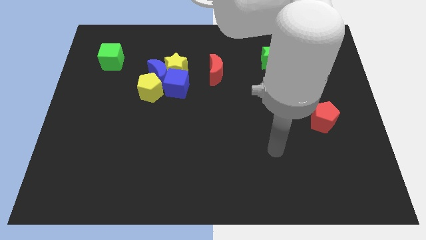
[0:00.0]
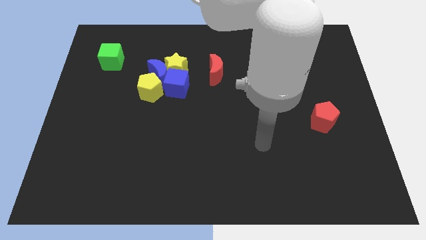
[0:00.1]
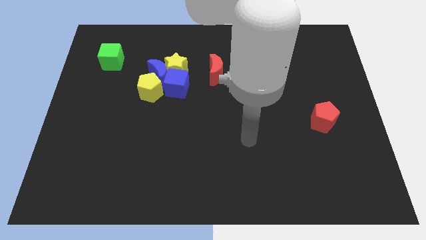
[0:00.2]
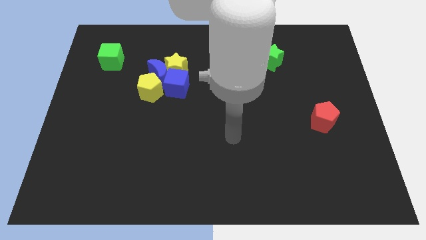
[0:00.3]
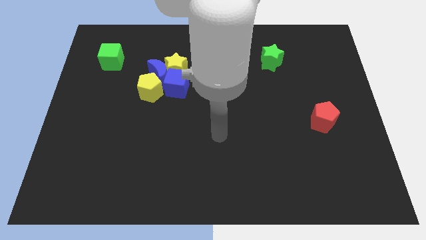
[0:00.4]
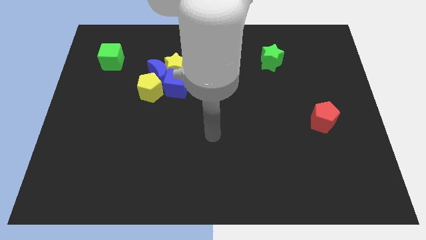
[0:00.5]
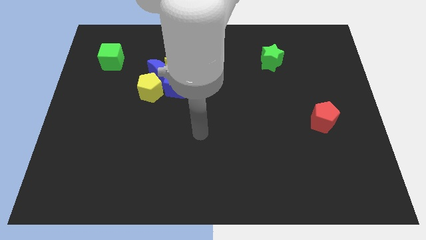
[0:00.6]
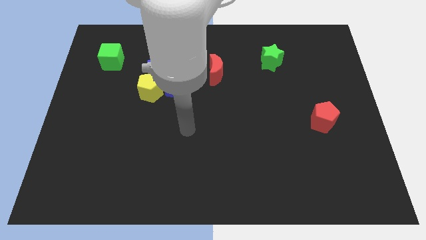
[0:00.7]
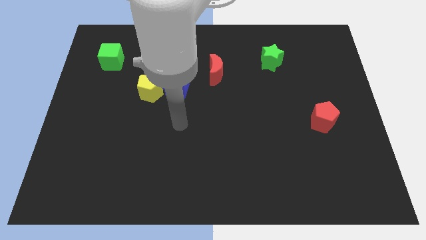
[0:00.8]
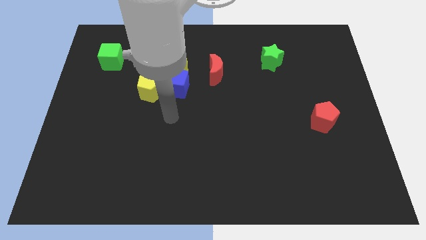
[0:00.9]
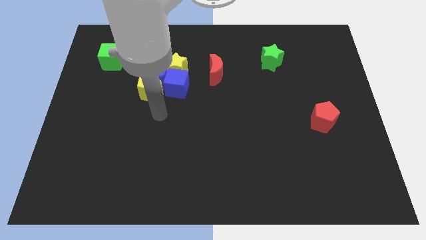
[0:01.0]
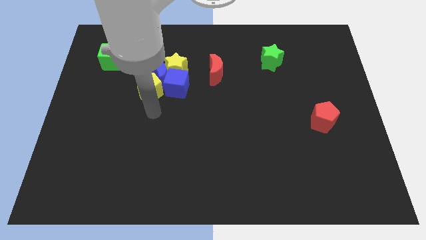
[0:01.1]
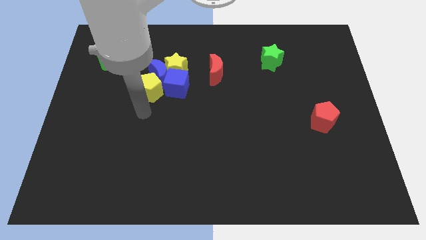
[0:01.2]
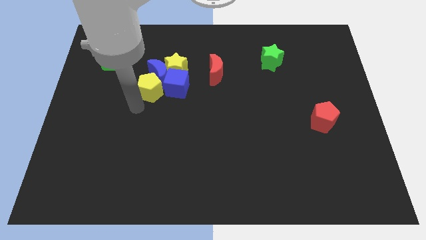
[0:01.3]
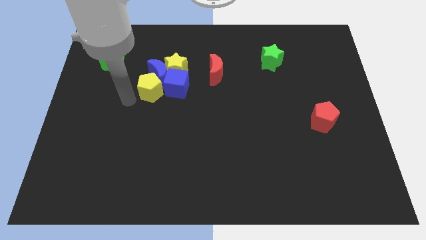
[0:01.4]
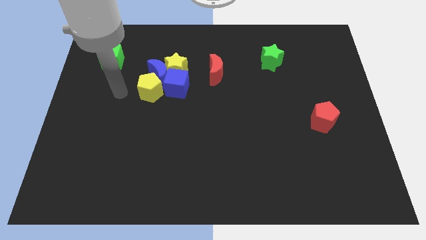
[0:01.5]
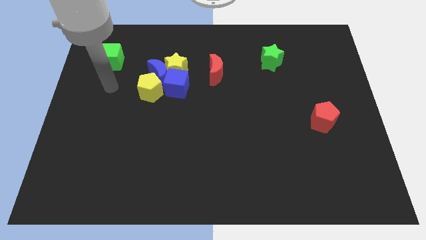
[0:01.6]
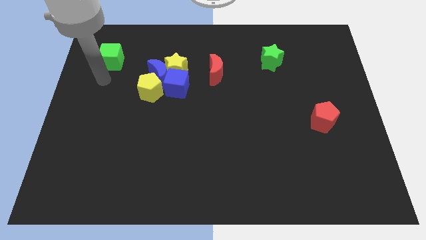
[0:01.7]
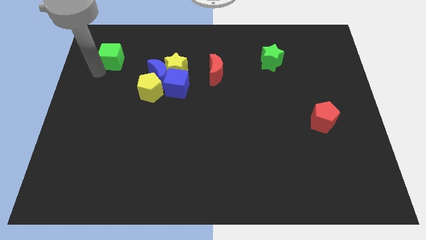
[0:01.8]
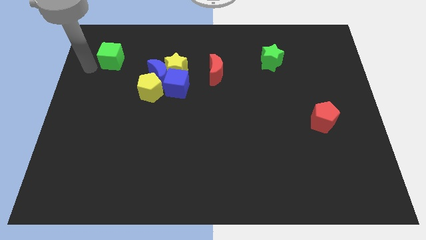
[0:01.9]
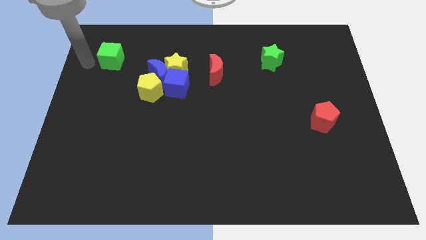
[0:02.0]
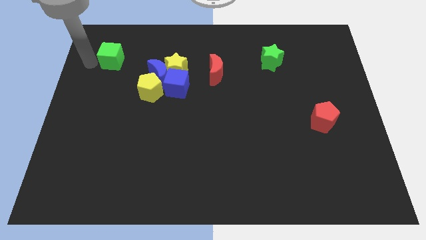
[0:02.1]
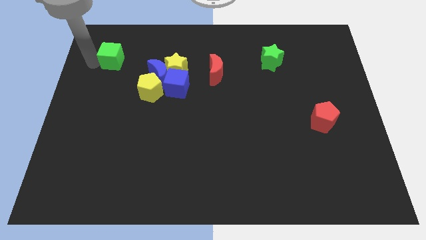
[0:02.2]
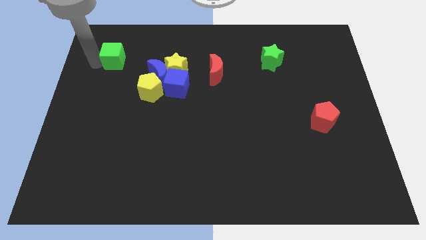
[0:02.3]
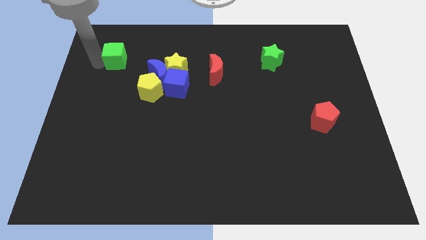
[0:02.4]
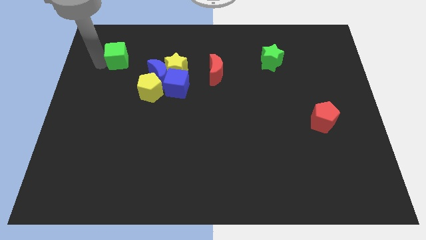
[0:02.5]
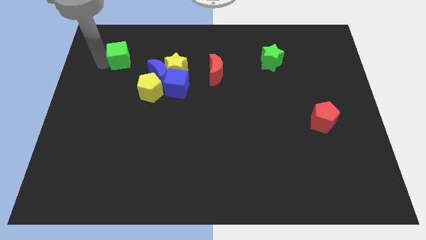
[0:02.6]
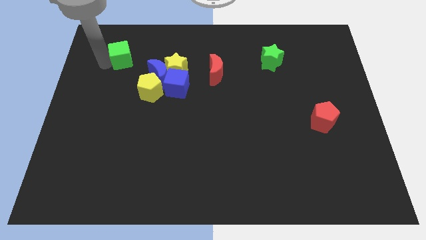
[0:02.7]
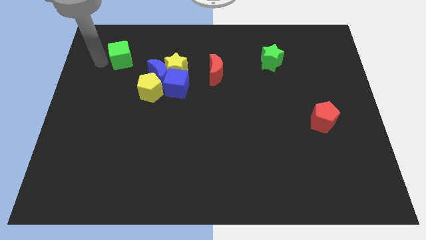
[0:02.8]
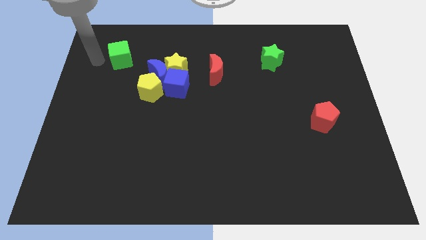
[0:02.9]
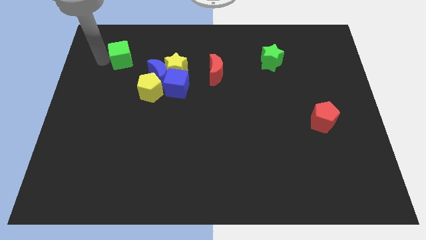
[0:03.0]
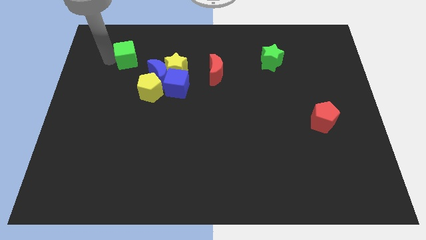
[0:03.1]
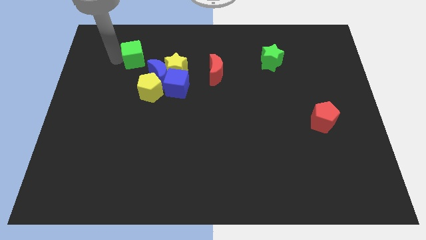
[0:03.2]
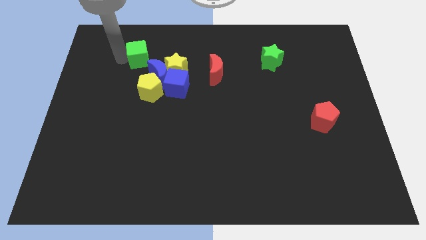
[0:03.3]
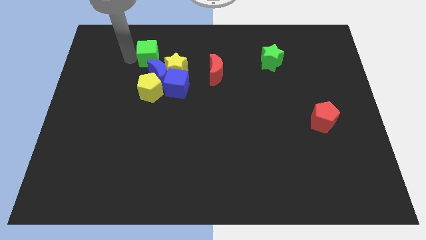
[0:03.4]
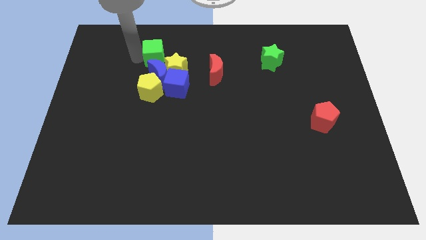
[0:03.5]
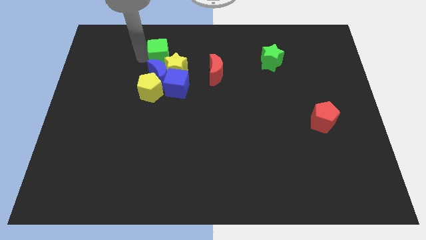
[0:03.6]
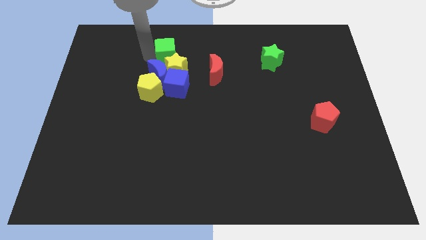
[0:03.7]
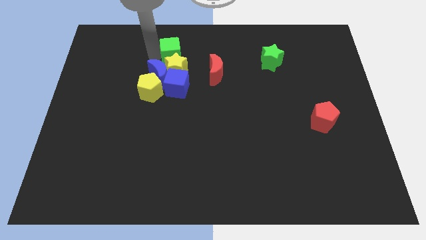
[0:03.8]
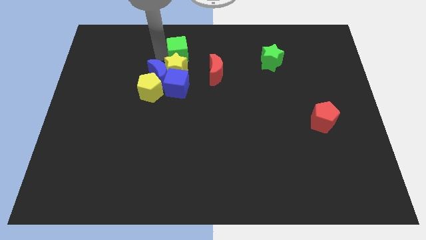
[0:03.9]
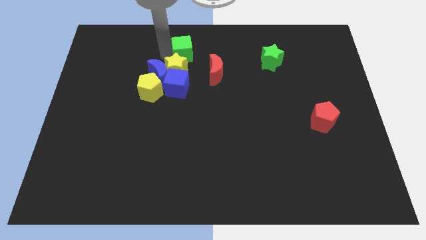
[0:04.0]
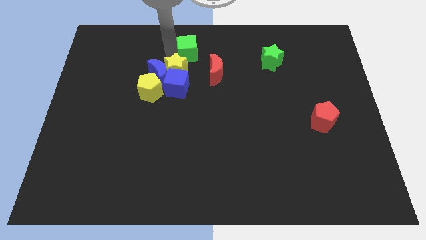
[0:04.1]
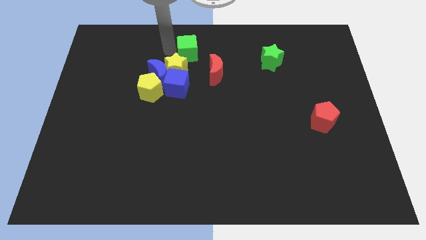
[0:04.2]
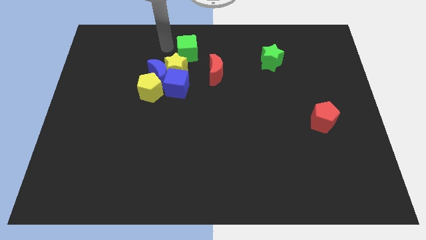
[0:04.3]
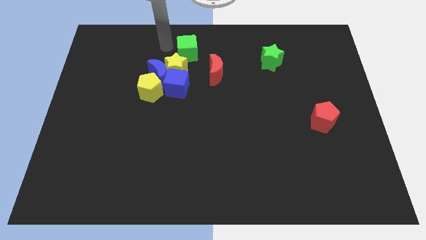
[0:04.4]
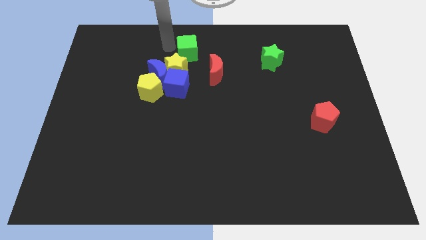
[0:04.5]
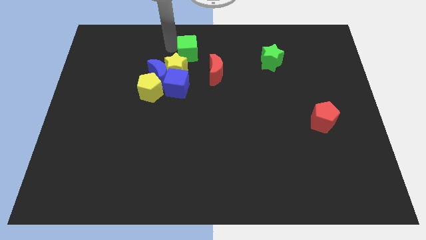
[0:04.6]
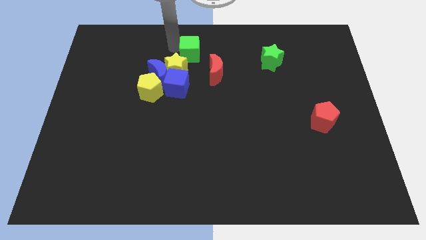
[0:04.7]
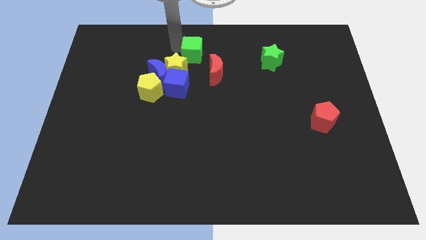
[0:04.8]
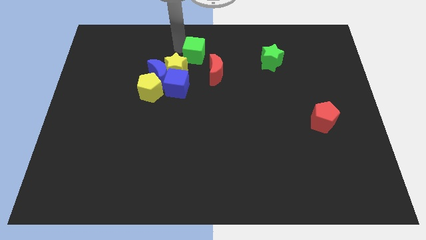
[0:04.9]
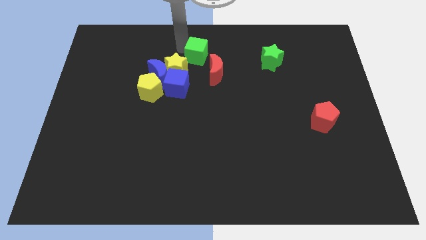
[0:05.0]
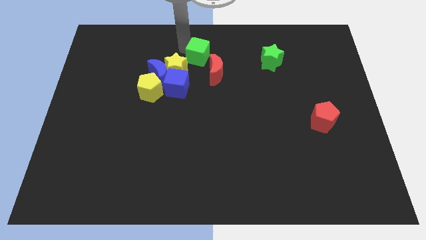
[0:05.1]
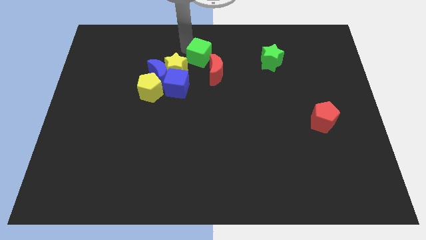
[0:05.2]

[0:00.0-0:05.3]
put the green cube to the right side of the yellow star

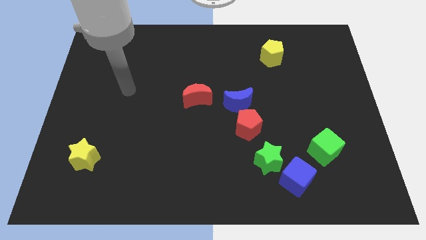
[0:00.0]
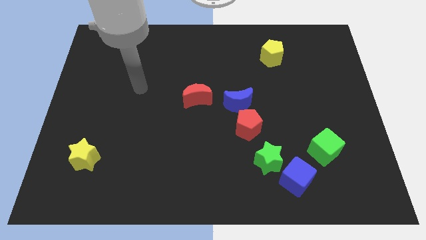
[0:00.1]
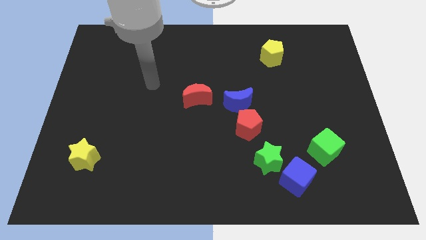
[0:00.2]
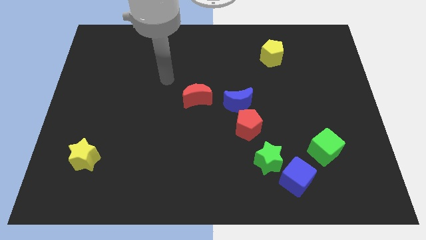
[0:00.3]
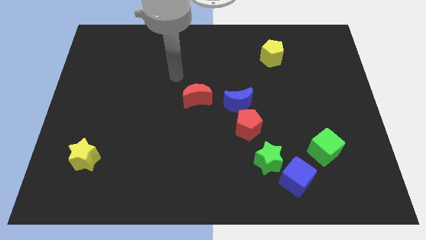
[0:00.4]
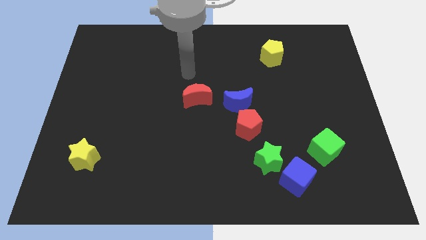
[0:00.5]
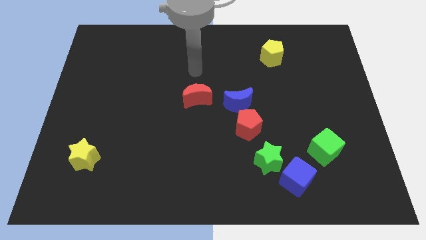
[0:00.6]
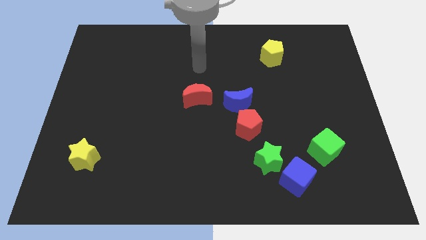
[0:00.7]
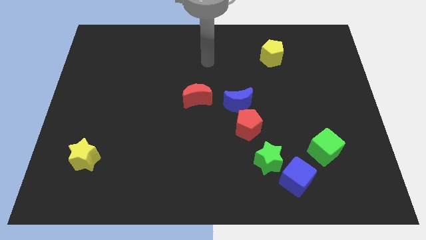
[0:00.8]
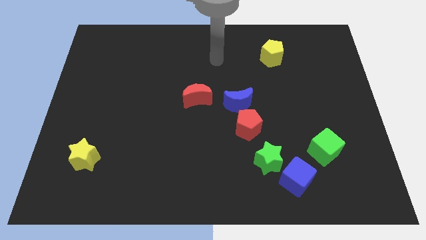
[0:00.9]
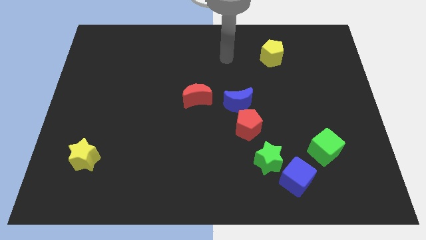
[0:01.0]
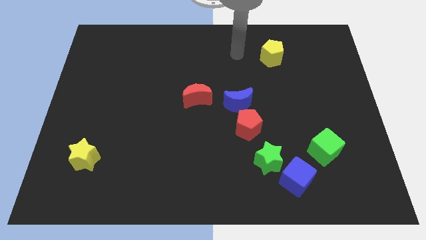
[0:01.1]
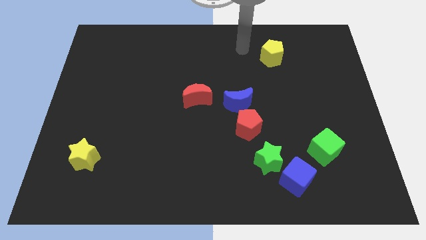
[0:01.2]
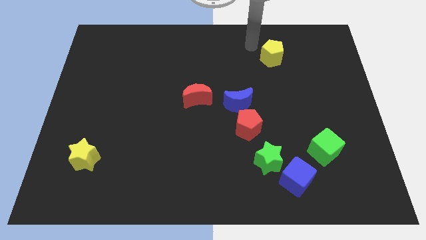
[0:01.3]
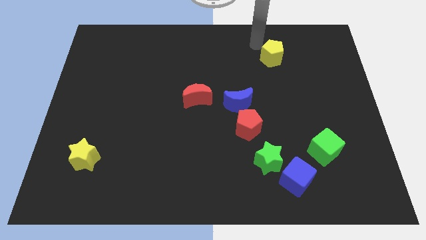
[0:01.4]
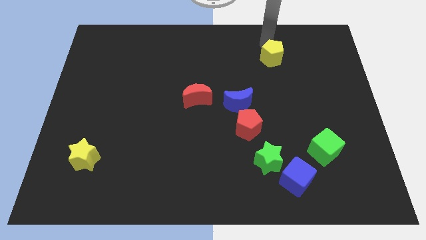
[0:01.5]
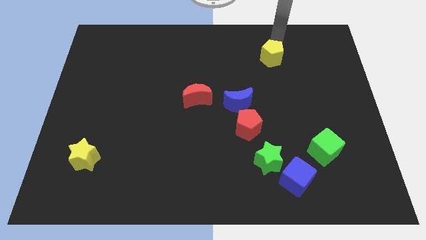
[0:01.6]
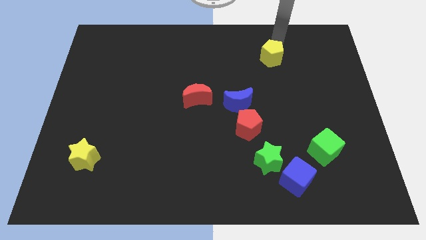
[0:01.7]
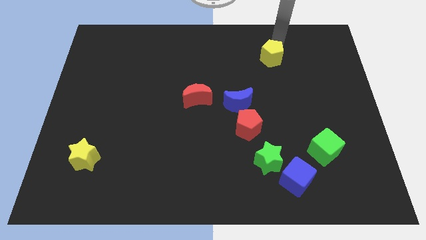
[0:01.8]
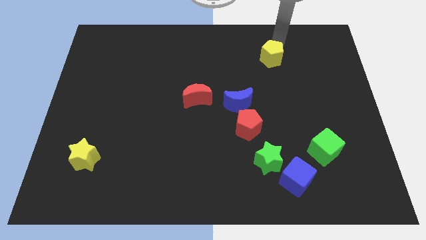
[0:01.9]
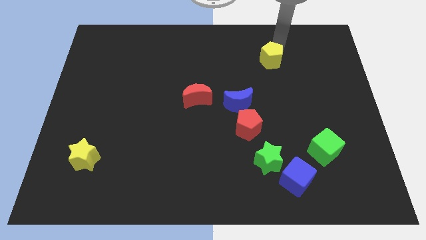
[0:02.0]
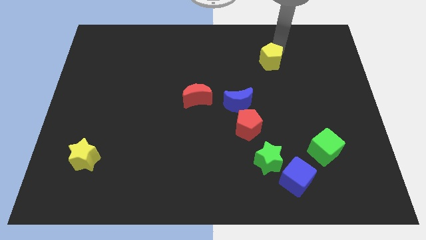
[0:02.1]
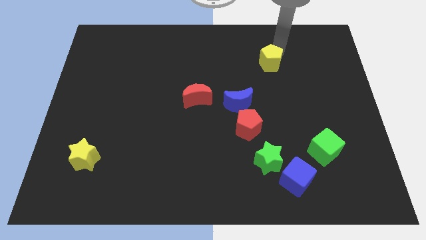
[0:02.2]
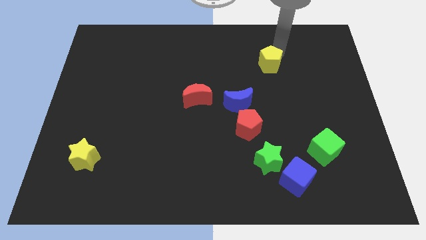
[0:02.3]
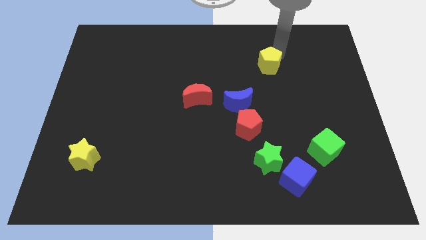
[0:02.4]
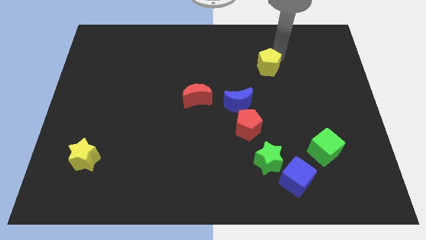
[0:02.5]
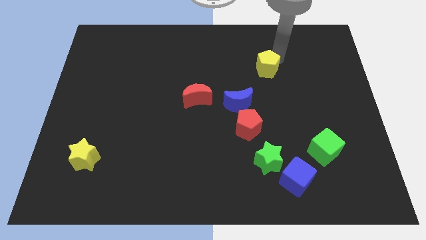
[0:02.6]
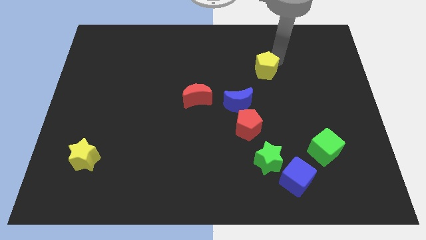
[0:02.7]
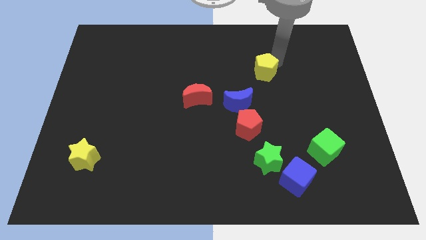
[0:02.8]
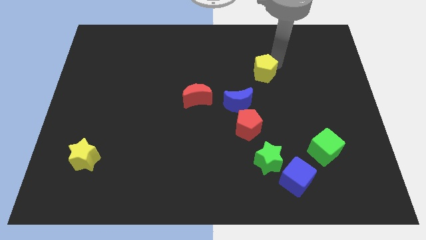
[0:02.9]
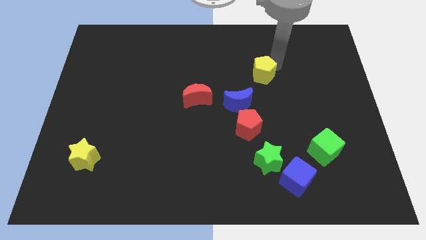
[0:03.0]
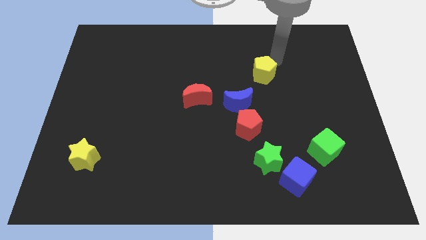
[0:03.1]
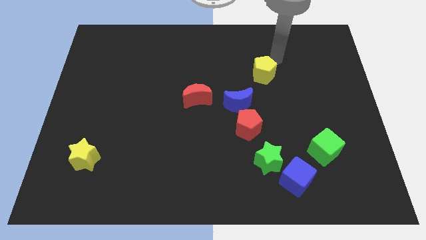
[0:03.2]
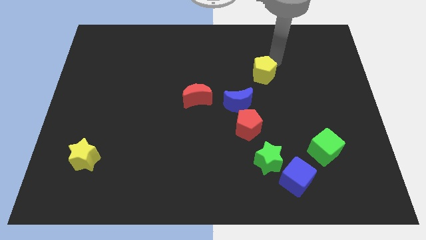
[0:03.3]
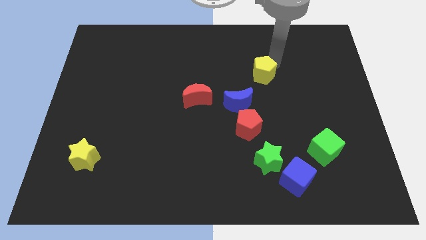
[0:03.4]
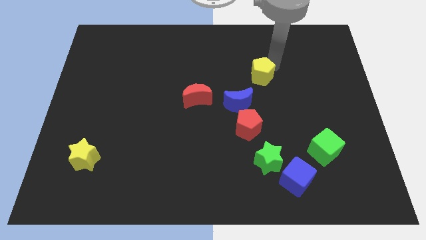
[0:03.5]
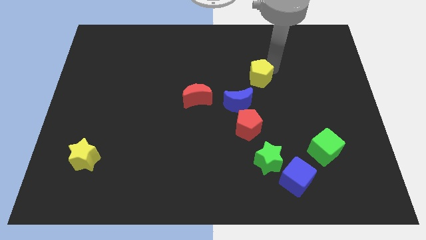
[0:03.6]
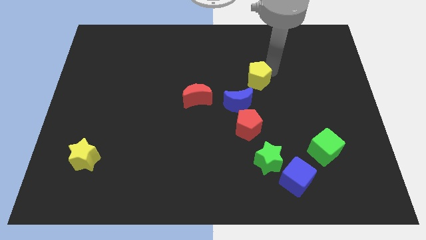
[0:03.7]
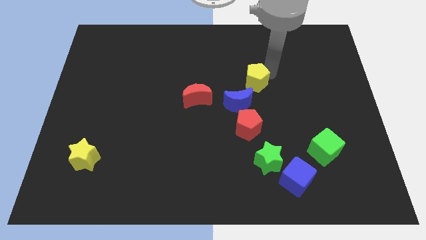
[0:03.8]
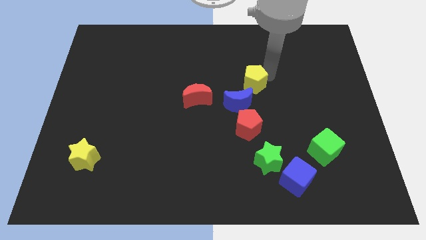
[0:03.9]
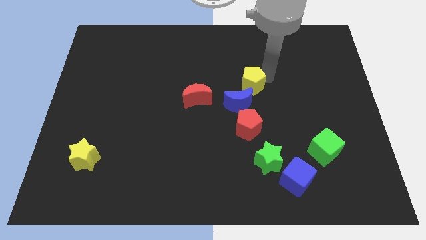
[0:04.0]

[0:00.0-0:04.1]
move the yellow pentagon to the right of the red moon
